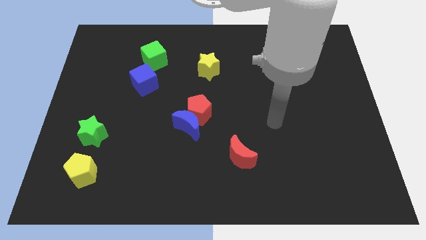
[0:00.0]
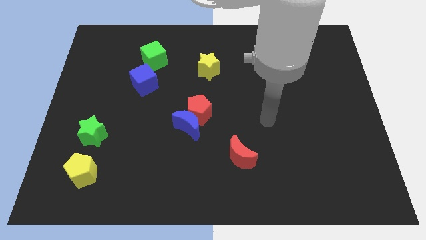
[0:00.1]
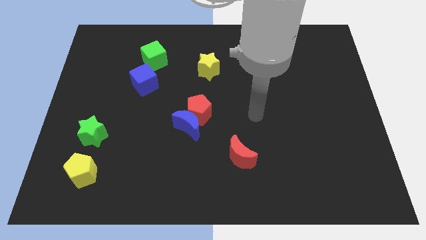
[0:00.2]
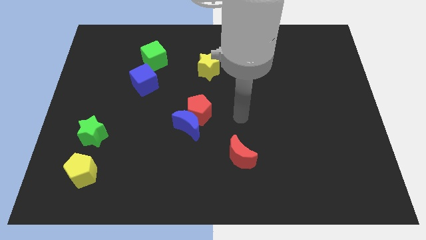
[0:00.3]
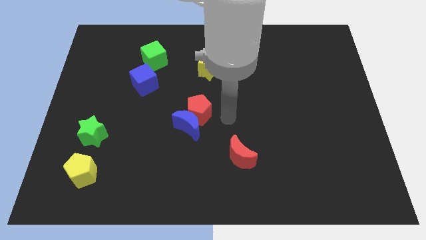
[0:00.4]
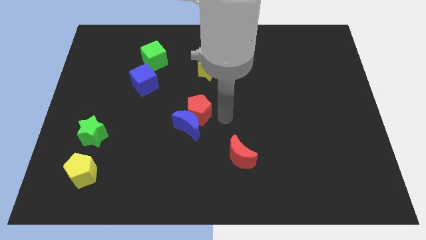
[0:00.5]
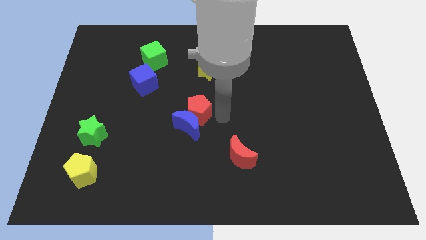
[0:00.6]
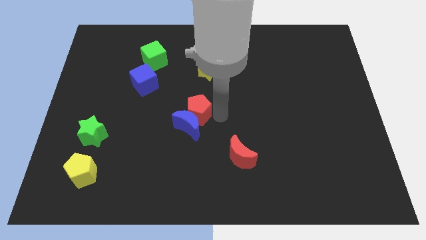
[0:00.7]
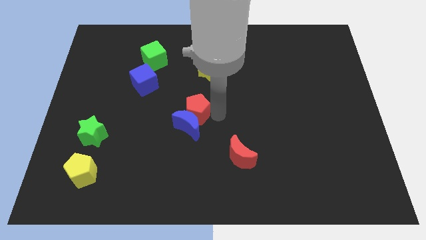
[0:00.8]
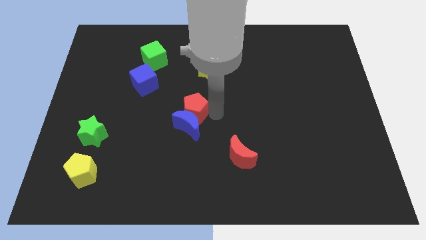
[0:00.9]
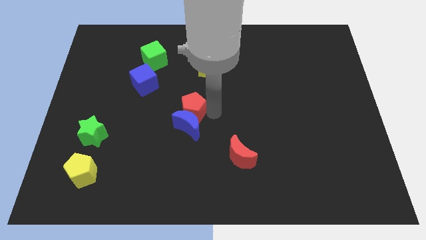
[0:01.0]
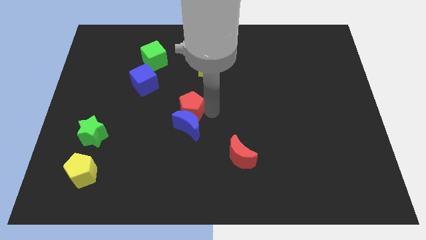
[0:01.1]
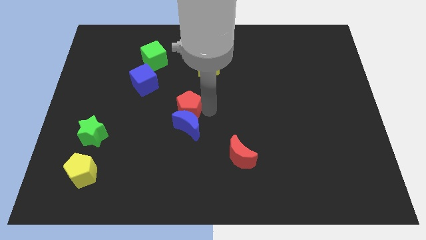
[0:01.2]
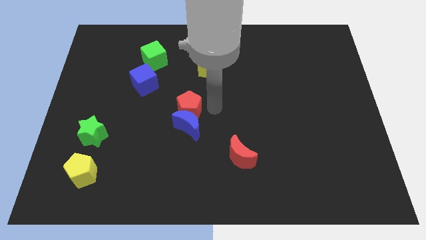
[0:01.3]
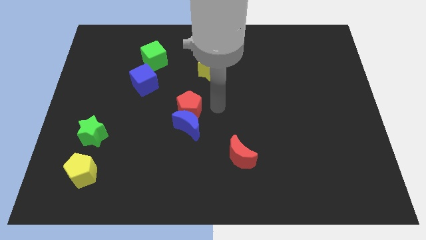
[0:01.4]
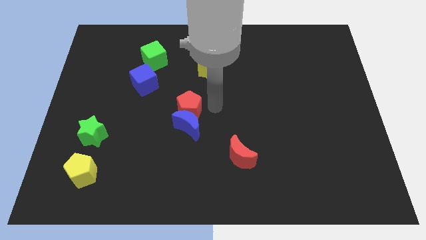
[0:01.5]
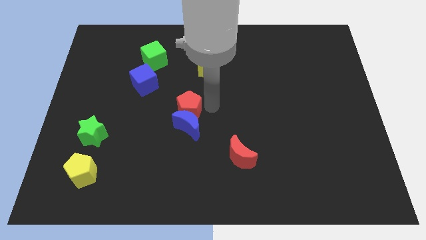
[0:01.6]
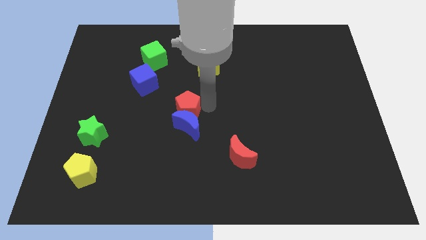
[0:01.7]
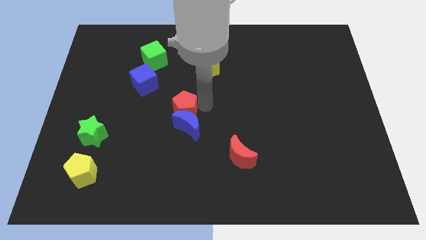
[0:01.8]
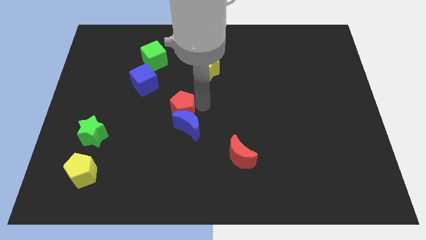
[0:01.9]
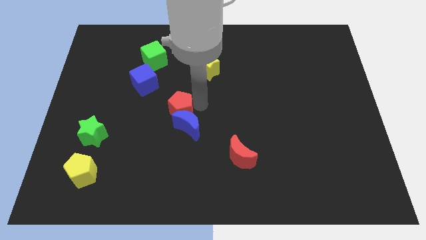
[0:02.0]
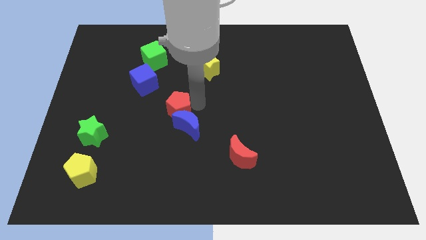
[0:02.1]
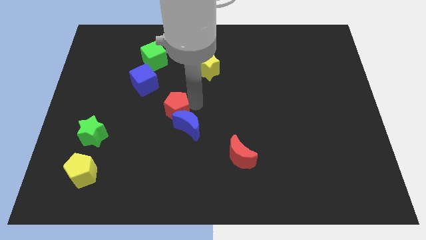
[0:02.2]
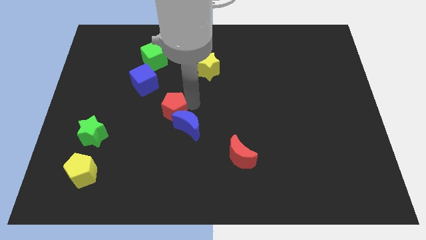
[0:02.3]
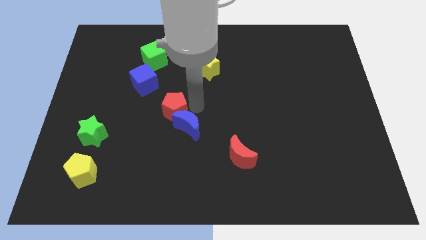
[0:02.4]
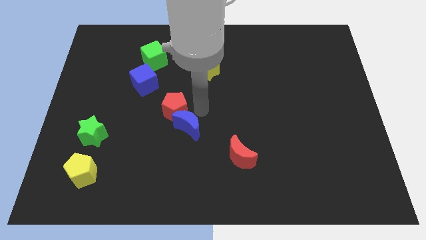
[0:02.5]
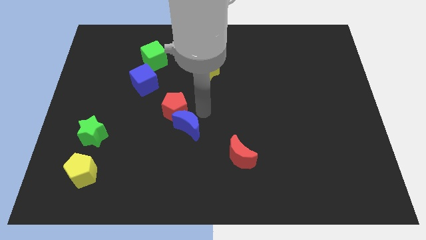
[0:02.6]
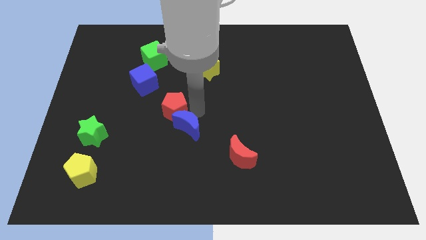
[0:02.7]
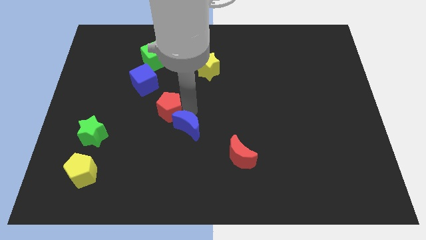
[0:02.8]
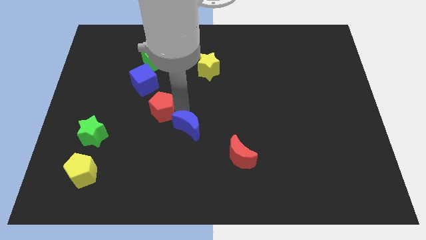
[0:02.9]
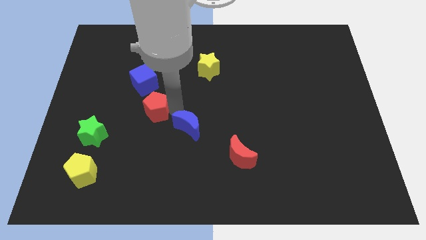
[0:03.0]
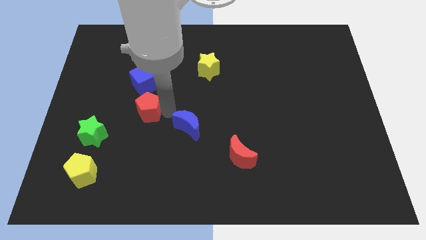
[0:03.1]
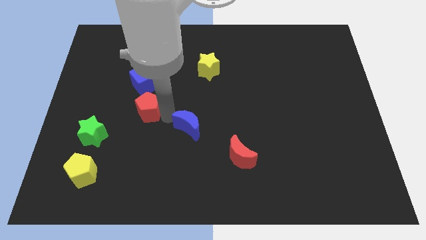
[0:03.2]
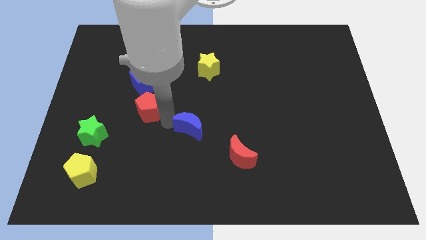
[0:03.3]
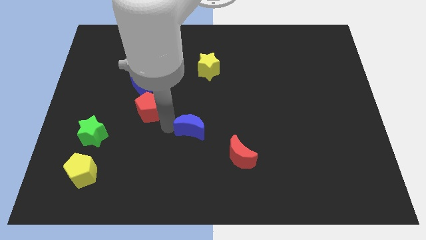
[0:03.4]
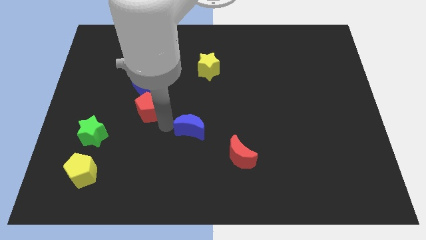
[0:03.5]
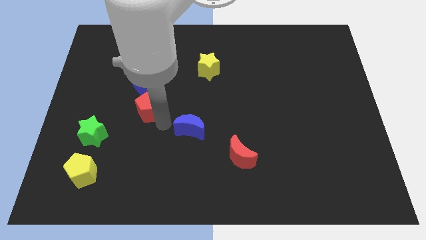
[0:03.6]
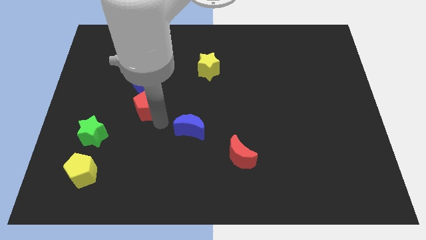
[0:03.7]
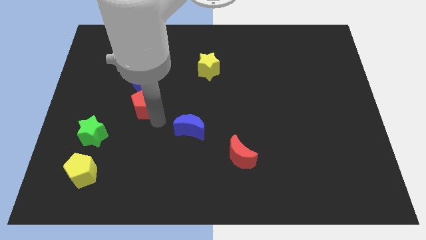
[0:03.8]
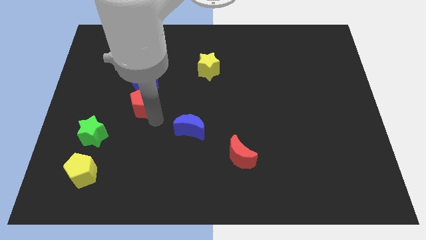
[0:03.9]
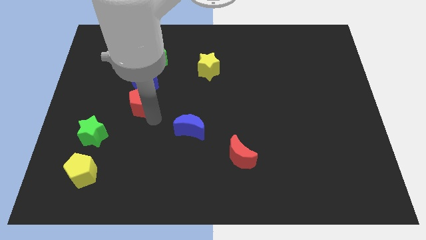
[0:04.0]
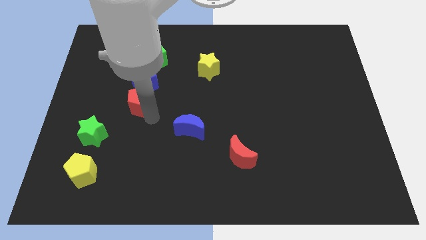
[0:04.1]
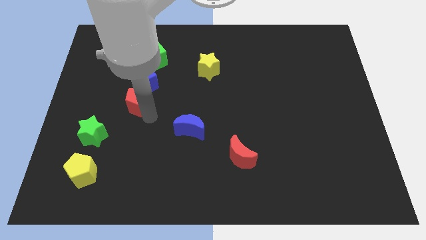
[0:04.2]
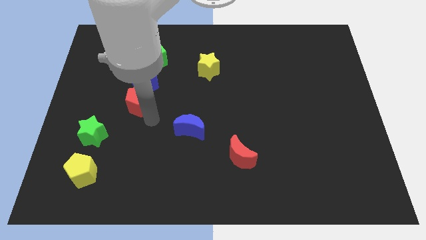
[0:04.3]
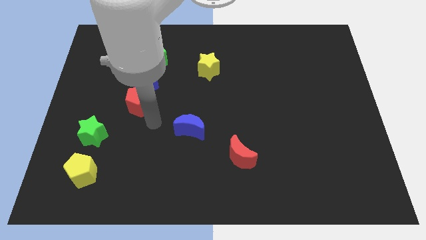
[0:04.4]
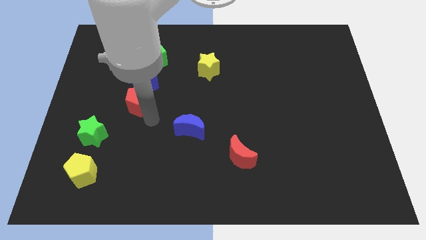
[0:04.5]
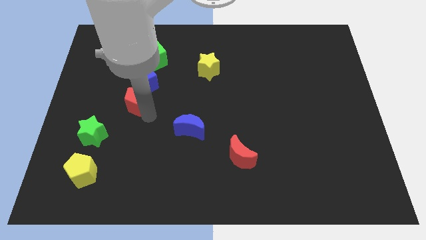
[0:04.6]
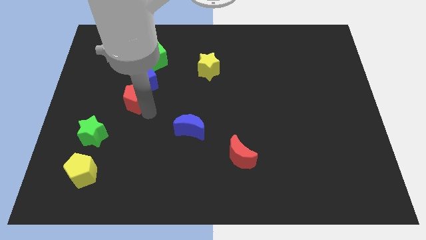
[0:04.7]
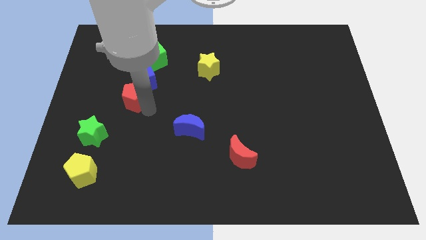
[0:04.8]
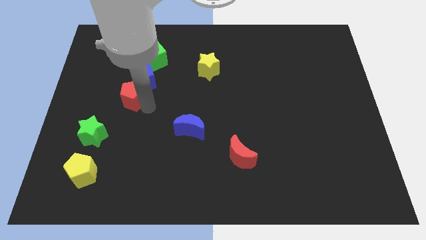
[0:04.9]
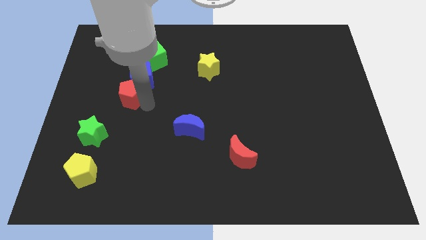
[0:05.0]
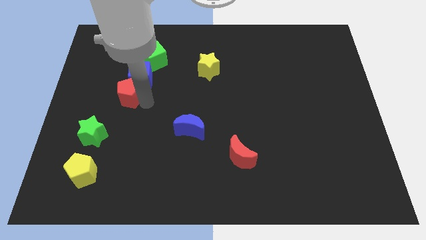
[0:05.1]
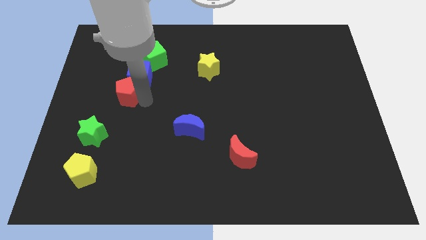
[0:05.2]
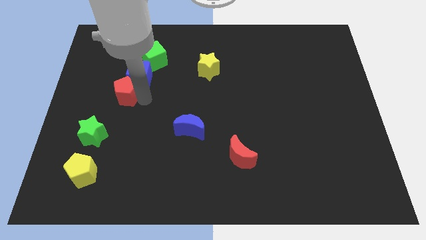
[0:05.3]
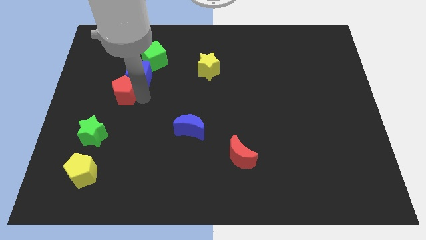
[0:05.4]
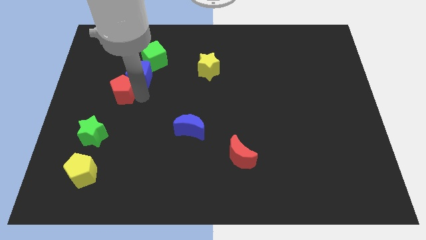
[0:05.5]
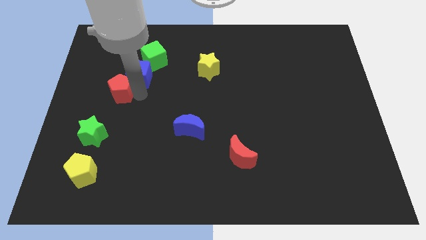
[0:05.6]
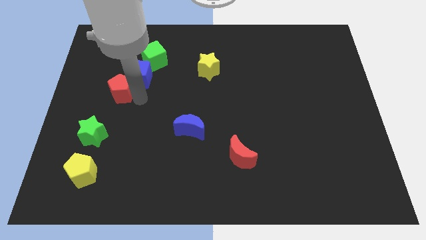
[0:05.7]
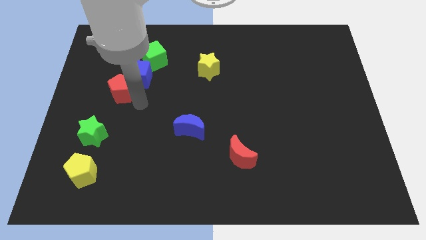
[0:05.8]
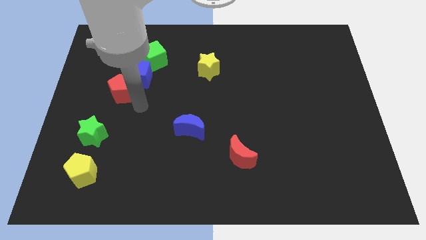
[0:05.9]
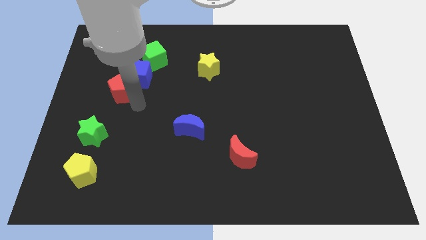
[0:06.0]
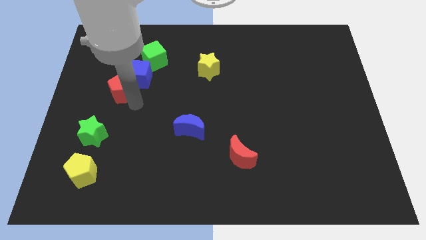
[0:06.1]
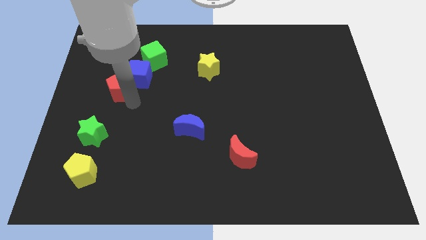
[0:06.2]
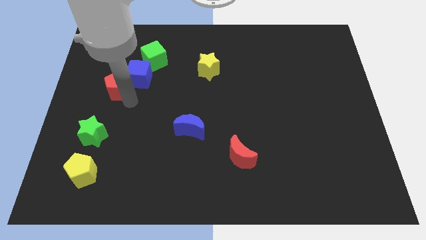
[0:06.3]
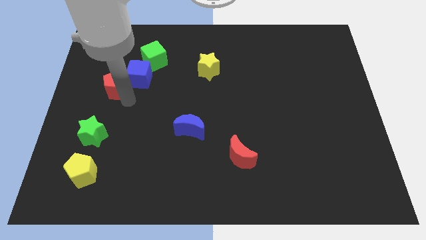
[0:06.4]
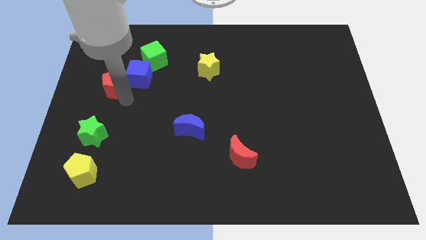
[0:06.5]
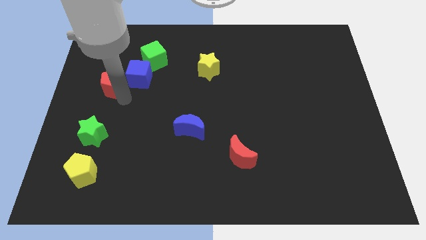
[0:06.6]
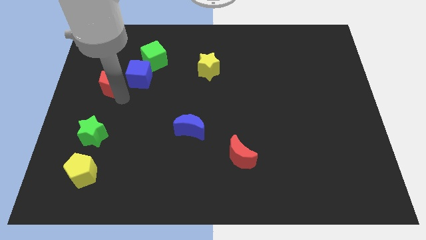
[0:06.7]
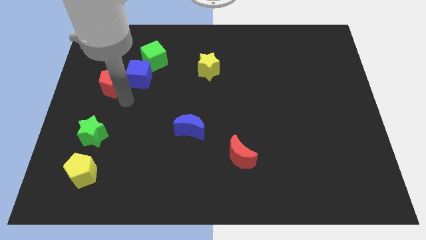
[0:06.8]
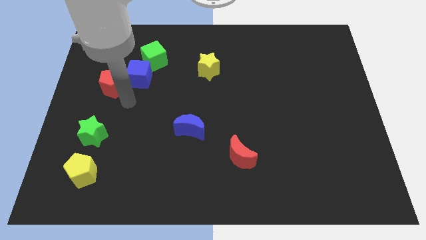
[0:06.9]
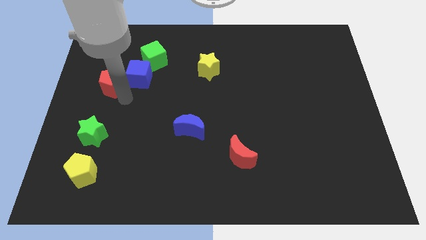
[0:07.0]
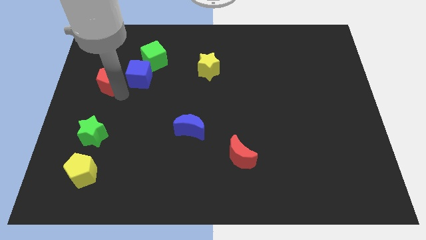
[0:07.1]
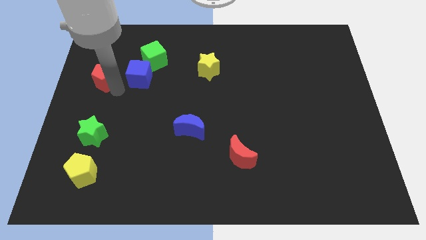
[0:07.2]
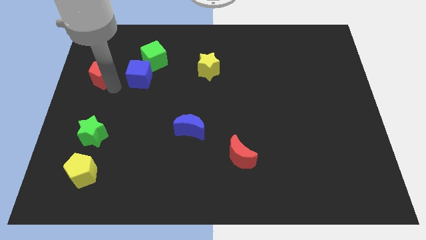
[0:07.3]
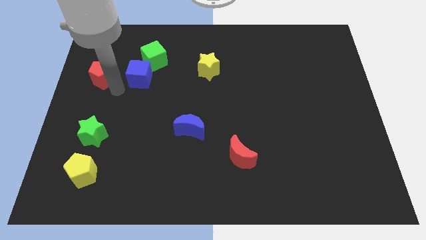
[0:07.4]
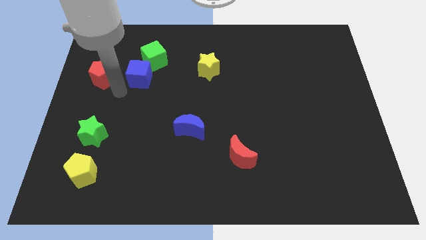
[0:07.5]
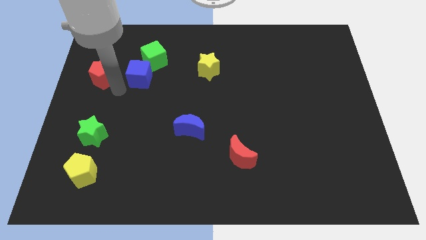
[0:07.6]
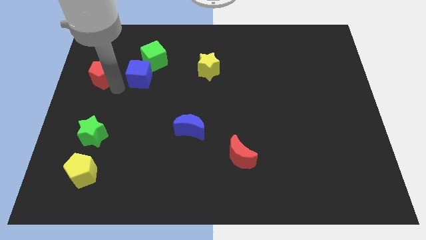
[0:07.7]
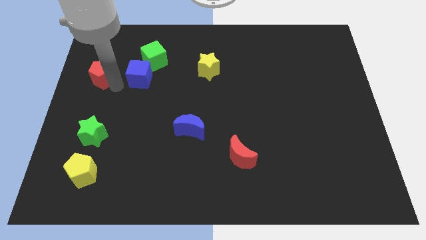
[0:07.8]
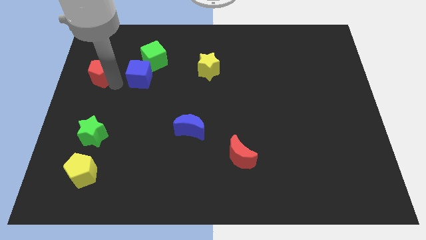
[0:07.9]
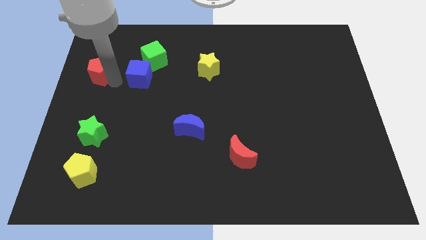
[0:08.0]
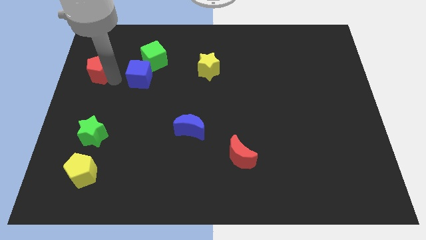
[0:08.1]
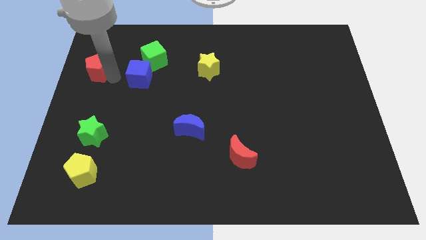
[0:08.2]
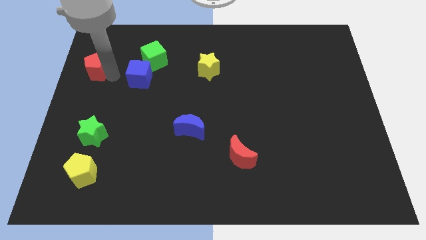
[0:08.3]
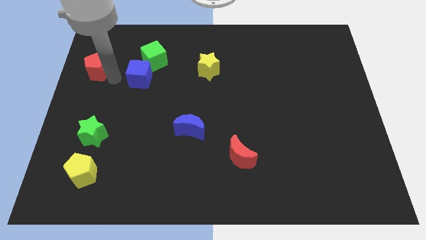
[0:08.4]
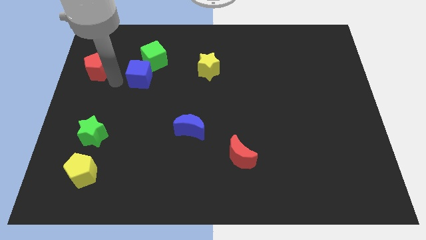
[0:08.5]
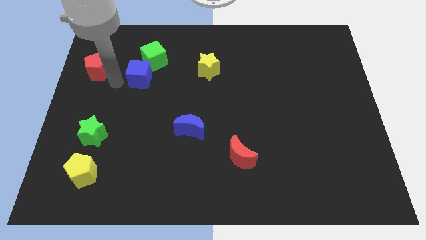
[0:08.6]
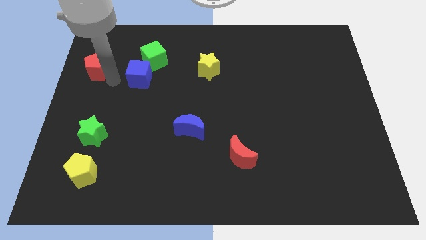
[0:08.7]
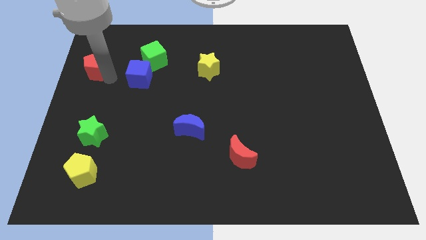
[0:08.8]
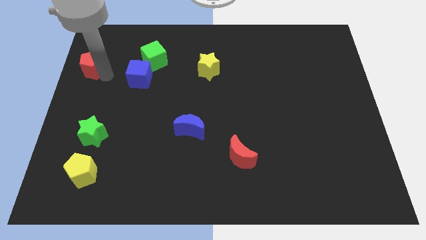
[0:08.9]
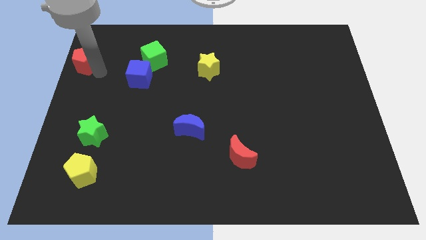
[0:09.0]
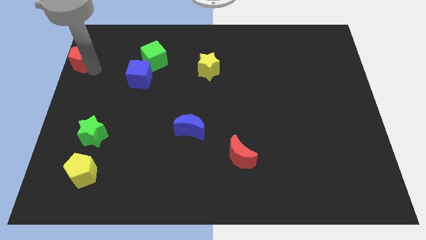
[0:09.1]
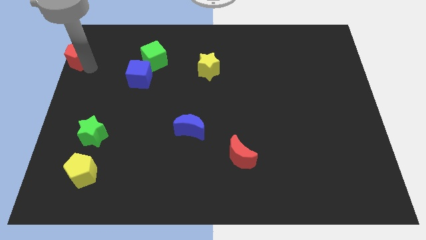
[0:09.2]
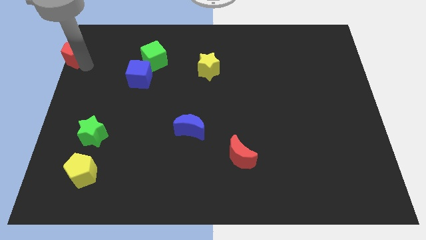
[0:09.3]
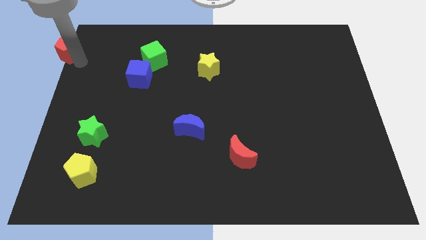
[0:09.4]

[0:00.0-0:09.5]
put the red pentagon to the top left corner
